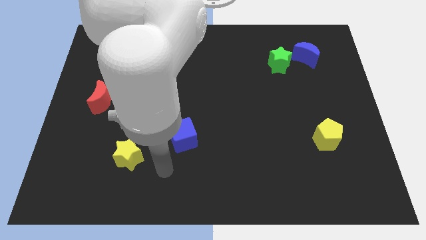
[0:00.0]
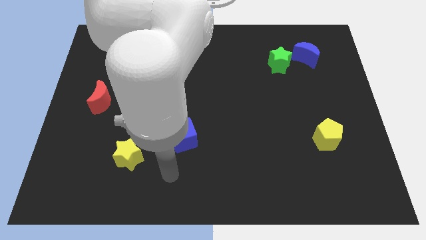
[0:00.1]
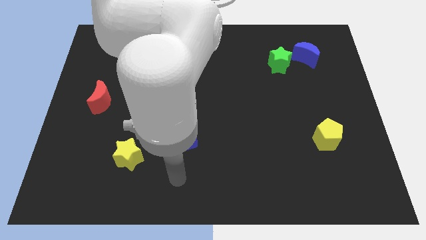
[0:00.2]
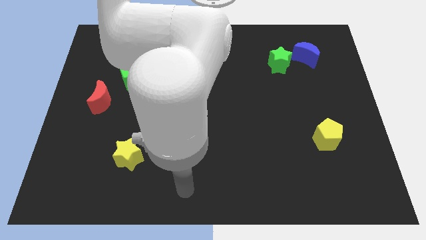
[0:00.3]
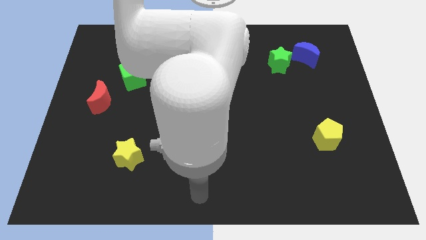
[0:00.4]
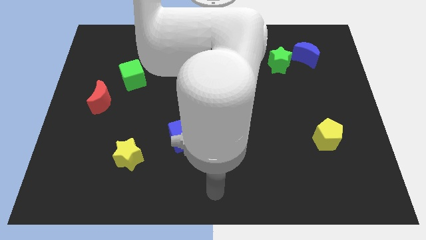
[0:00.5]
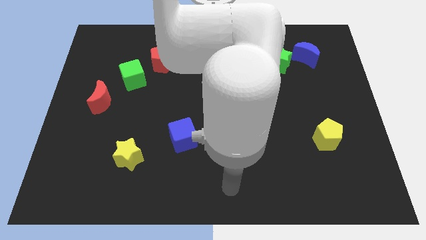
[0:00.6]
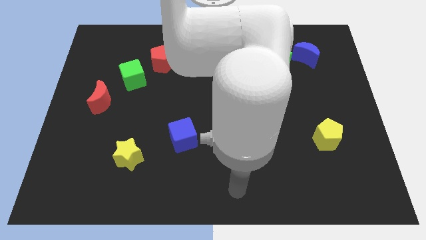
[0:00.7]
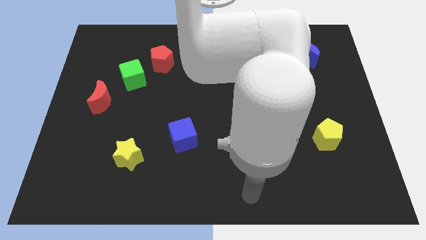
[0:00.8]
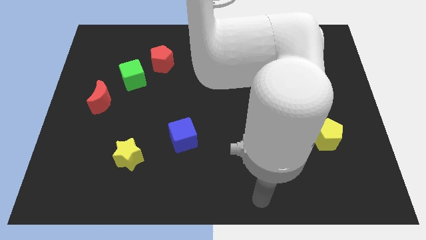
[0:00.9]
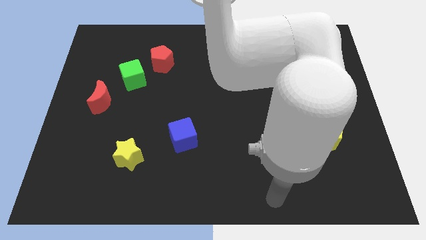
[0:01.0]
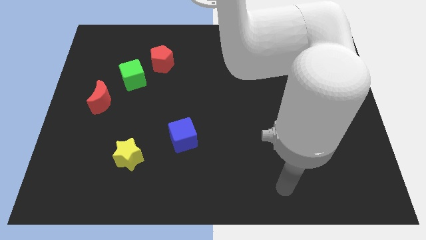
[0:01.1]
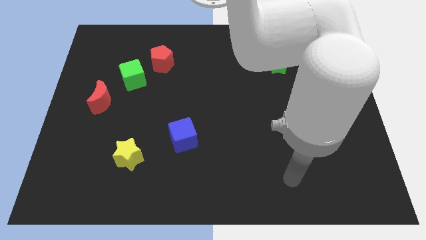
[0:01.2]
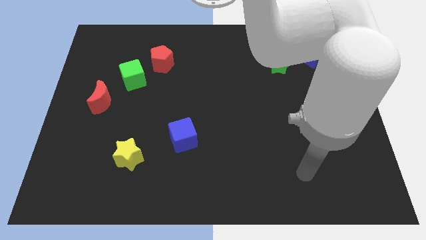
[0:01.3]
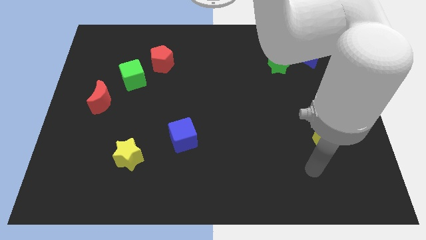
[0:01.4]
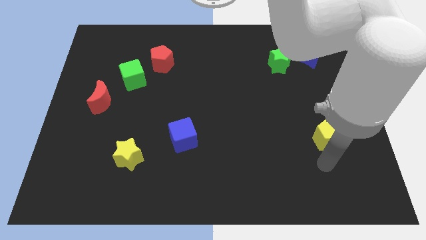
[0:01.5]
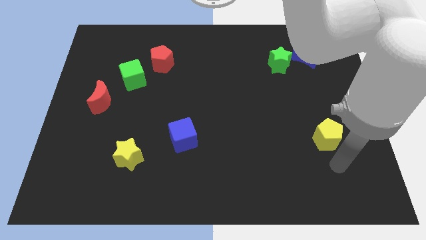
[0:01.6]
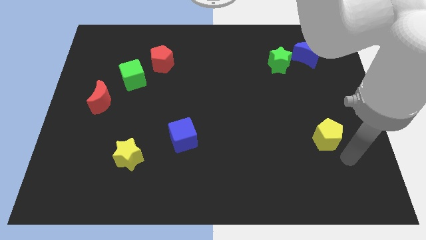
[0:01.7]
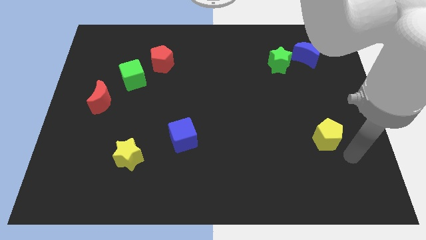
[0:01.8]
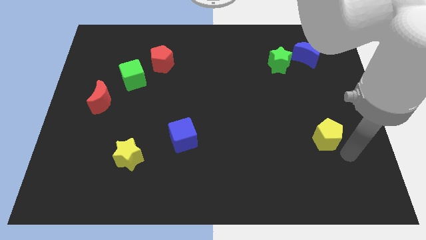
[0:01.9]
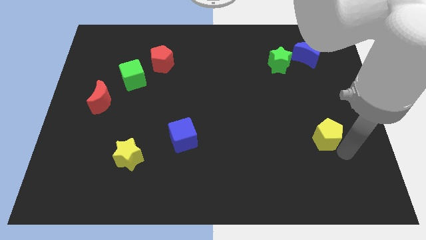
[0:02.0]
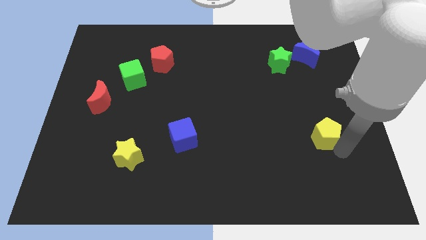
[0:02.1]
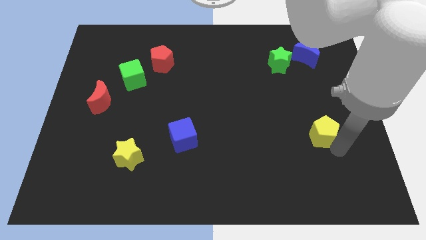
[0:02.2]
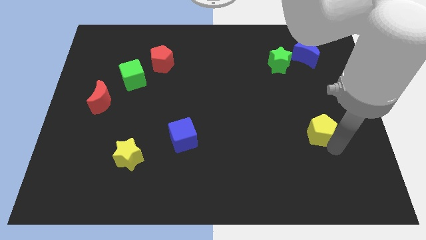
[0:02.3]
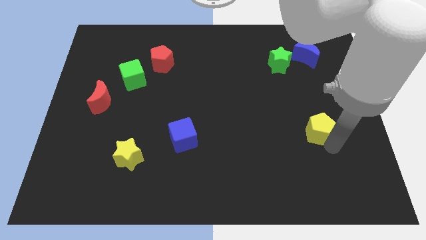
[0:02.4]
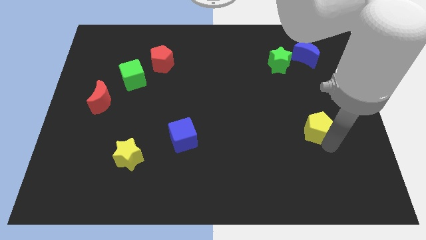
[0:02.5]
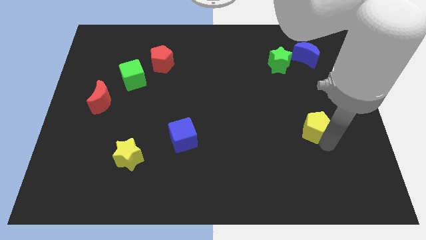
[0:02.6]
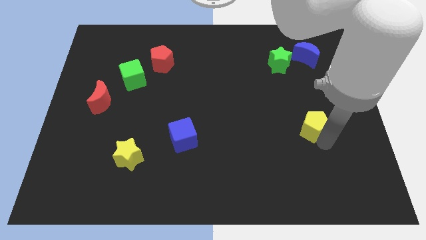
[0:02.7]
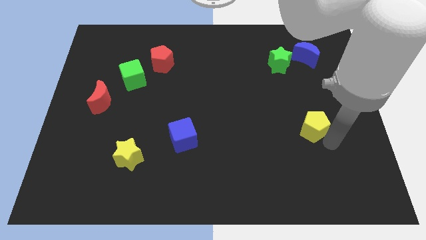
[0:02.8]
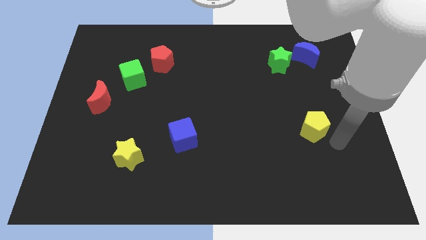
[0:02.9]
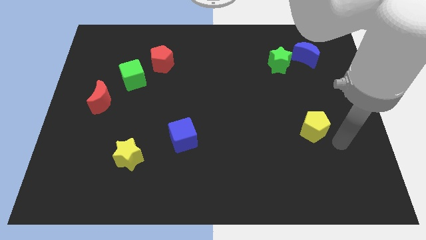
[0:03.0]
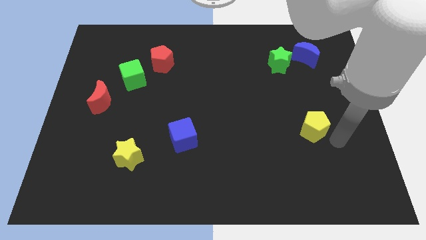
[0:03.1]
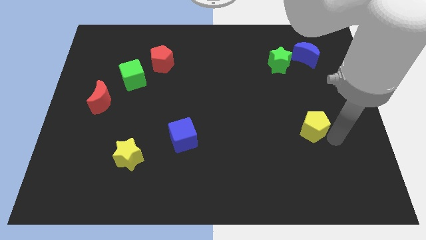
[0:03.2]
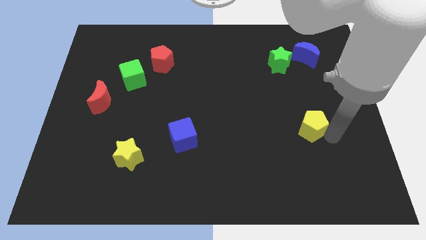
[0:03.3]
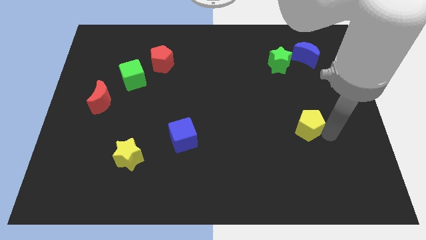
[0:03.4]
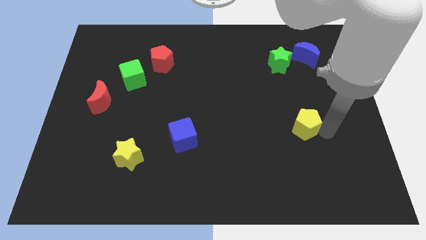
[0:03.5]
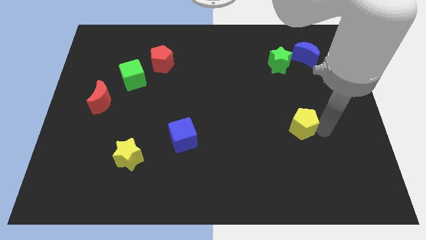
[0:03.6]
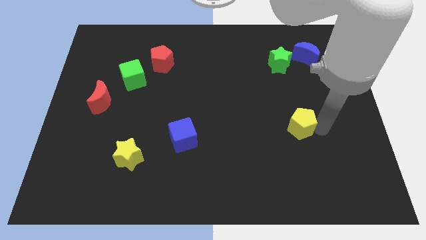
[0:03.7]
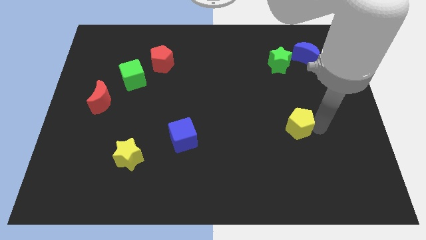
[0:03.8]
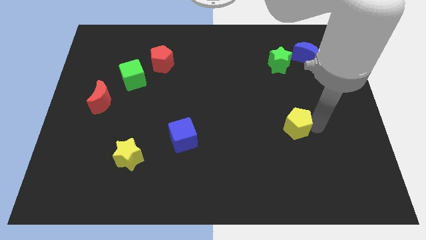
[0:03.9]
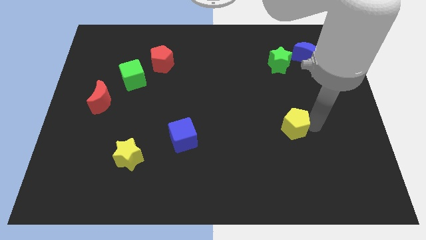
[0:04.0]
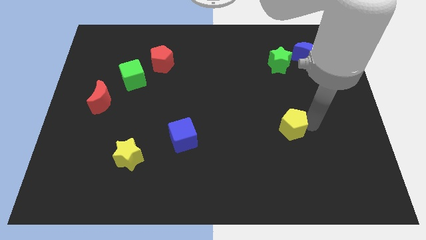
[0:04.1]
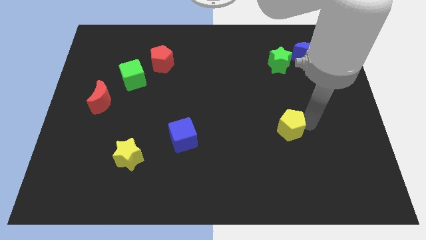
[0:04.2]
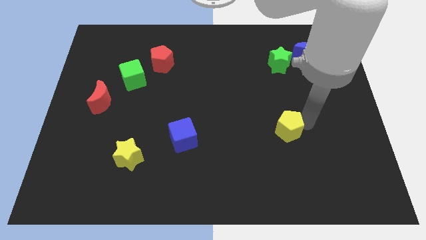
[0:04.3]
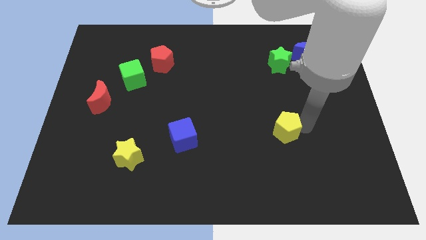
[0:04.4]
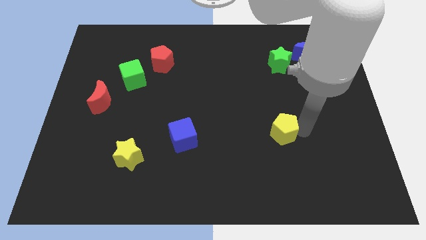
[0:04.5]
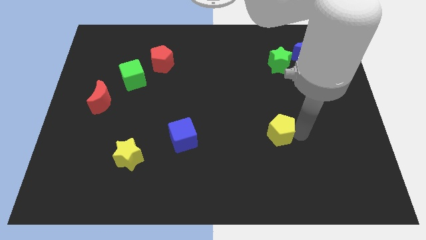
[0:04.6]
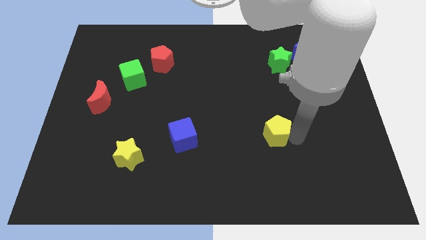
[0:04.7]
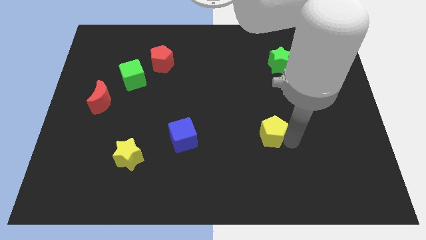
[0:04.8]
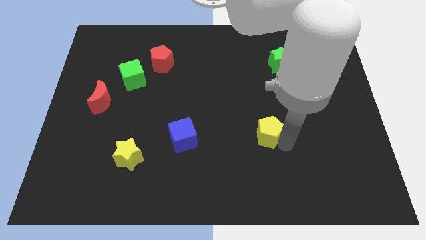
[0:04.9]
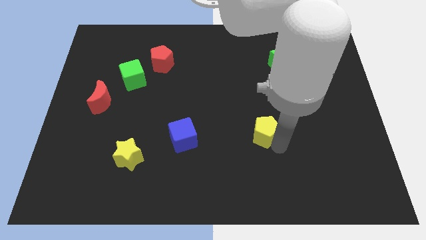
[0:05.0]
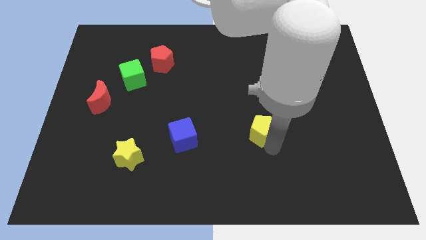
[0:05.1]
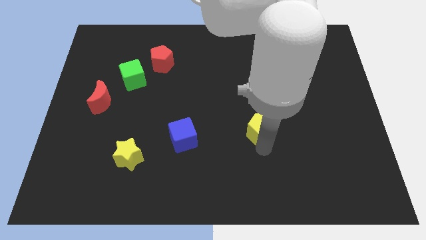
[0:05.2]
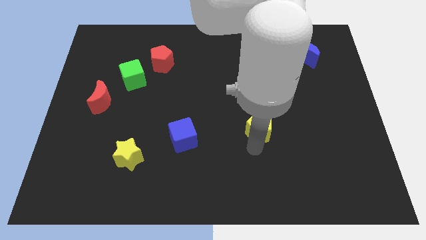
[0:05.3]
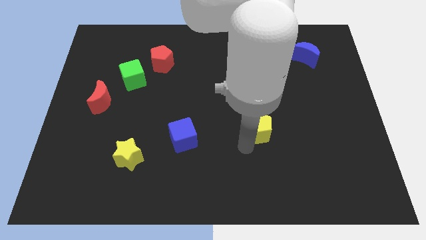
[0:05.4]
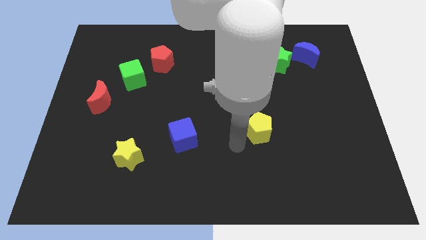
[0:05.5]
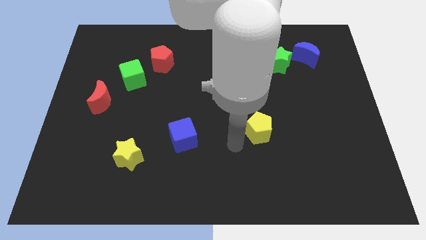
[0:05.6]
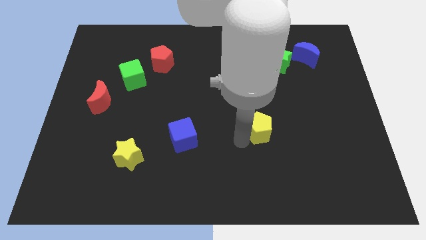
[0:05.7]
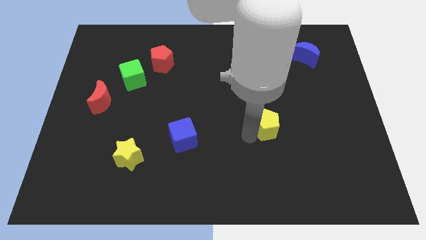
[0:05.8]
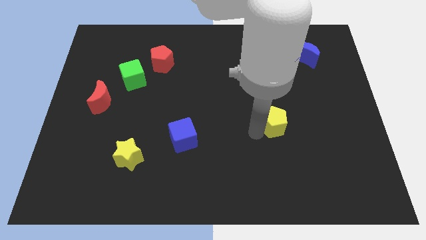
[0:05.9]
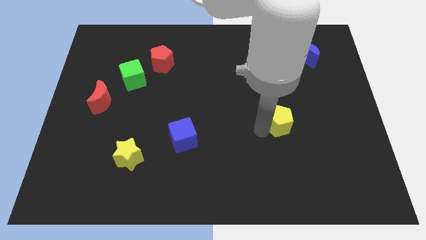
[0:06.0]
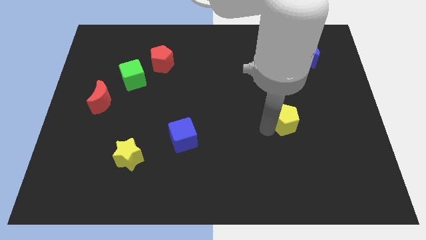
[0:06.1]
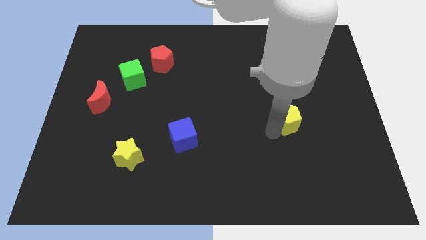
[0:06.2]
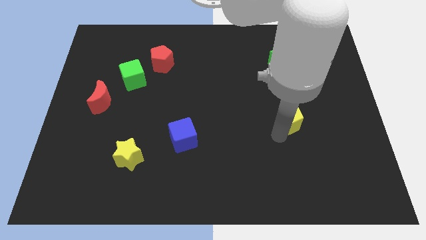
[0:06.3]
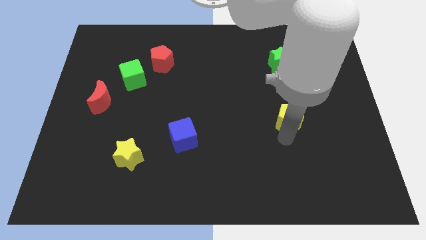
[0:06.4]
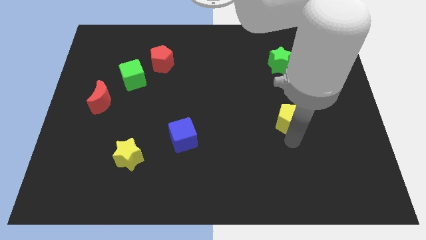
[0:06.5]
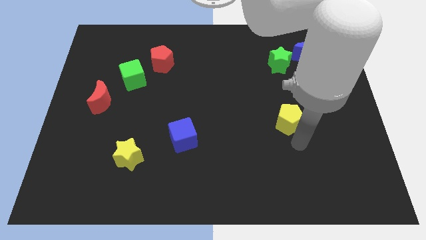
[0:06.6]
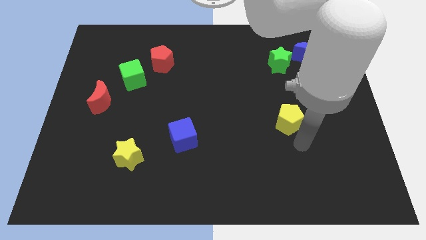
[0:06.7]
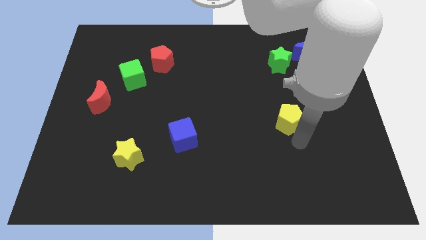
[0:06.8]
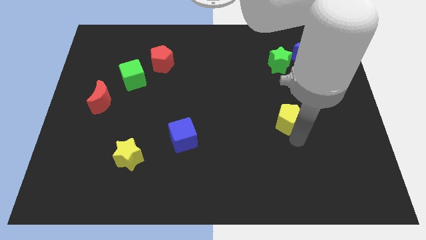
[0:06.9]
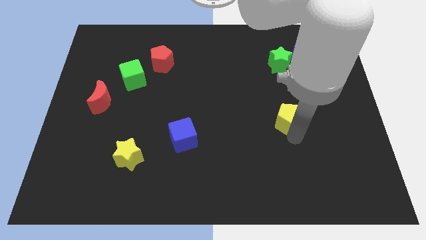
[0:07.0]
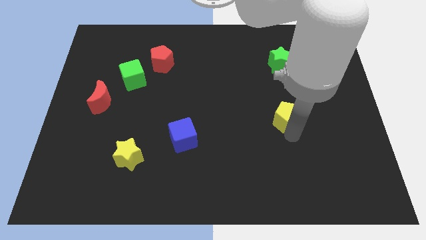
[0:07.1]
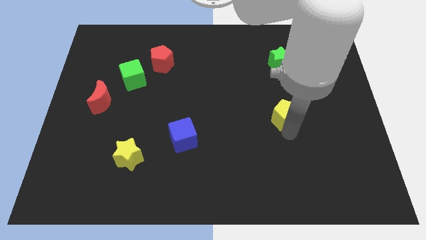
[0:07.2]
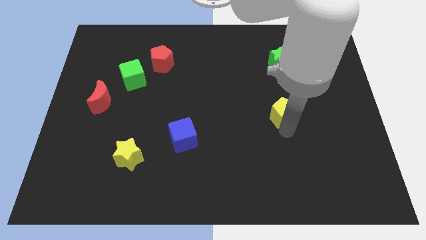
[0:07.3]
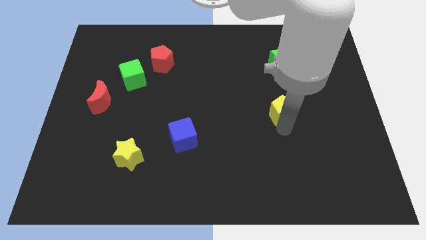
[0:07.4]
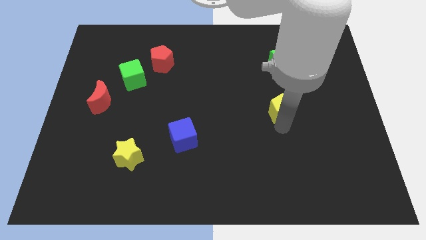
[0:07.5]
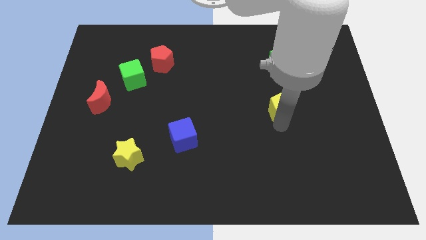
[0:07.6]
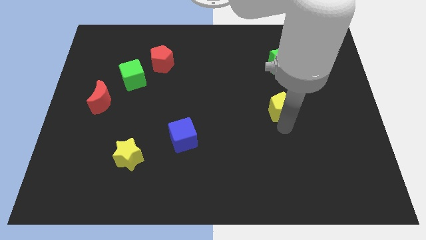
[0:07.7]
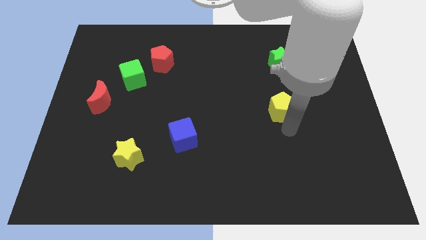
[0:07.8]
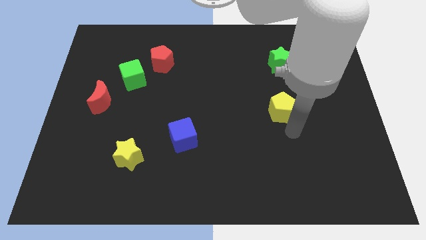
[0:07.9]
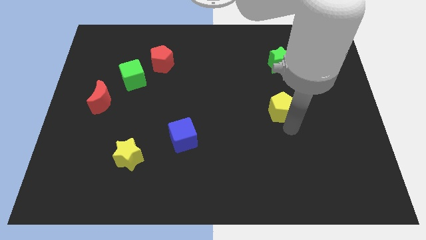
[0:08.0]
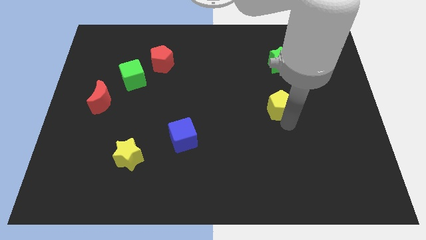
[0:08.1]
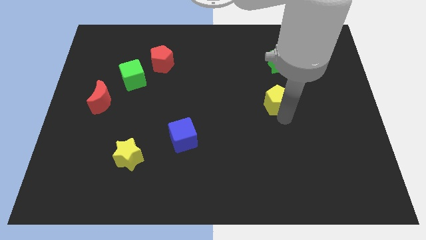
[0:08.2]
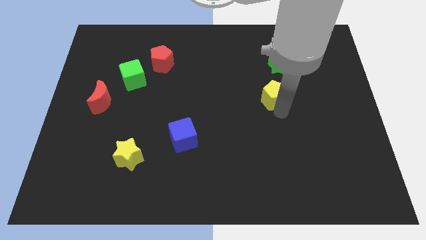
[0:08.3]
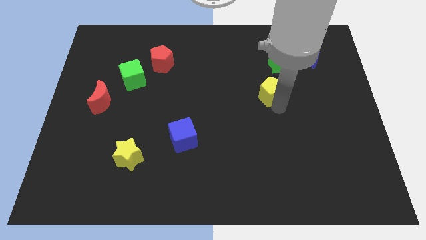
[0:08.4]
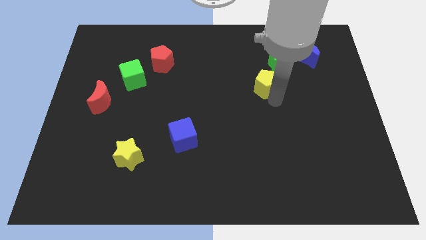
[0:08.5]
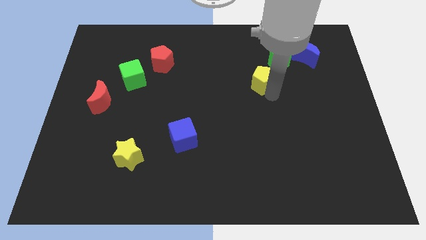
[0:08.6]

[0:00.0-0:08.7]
push the yellow pentagon upwards and to the left
